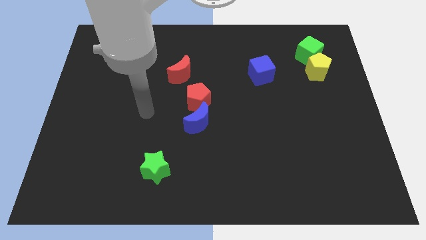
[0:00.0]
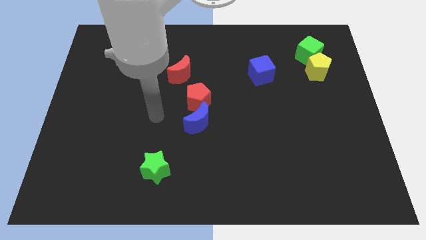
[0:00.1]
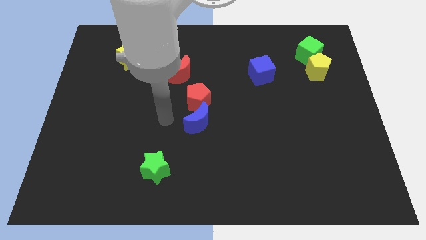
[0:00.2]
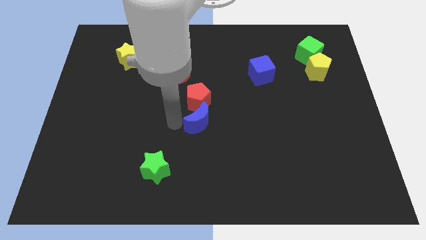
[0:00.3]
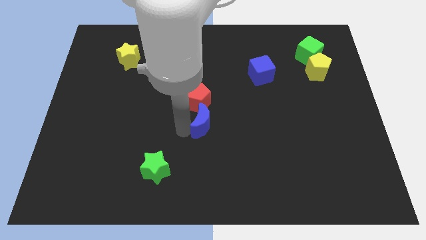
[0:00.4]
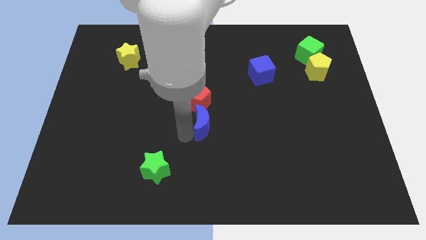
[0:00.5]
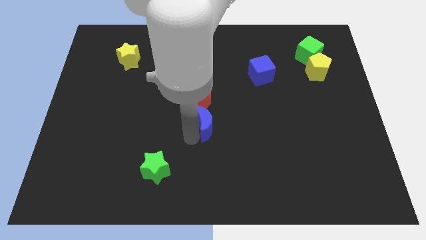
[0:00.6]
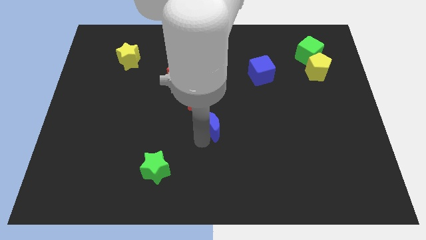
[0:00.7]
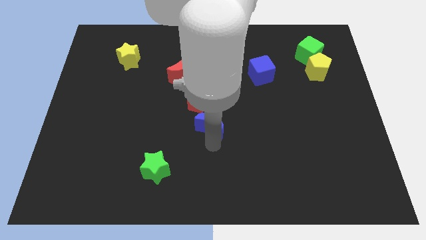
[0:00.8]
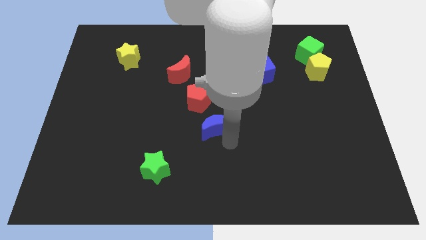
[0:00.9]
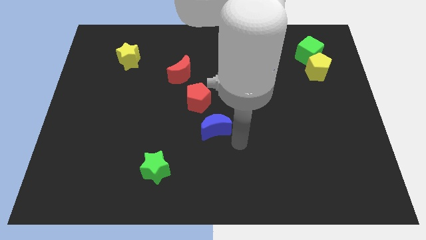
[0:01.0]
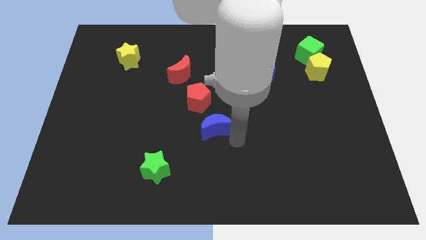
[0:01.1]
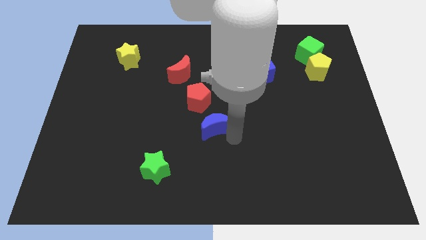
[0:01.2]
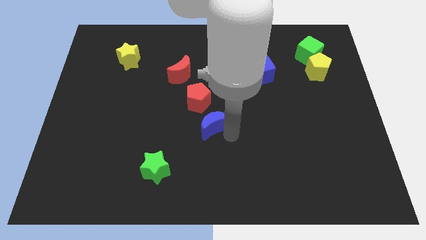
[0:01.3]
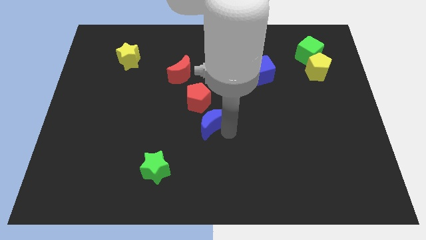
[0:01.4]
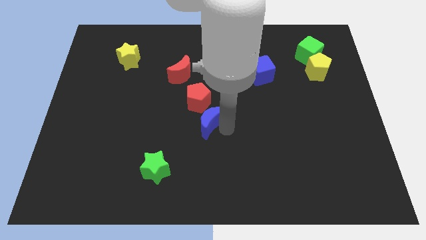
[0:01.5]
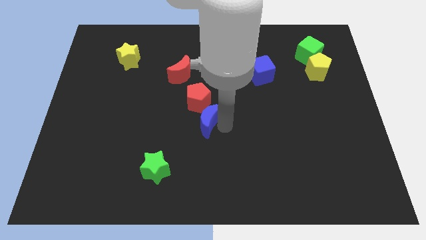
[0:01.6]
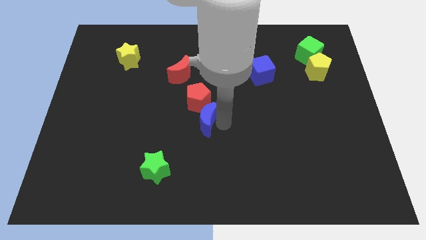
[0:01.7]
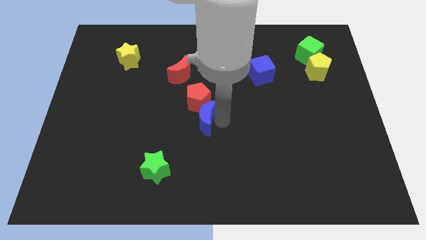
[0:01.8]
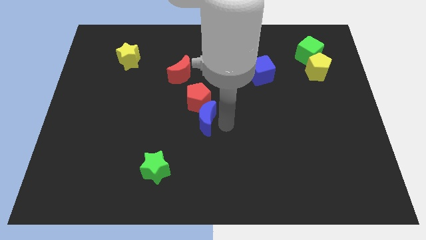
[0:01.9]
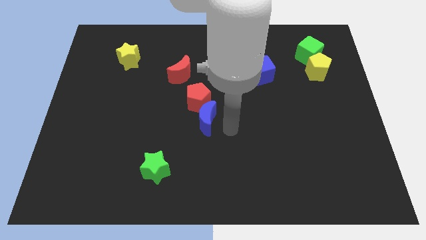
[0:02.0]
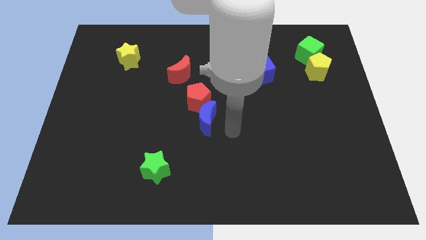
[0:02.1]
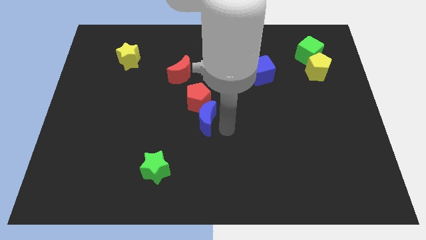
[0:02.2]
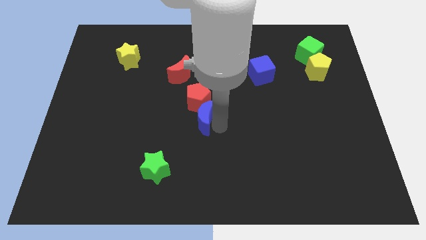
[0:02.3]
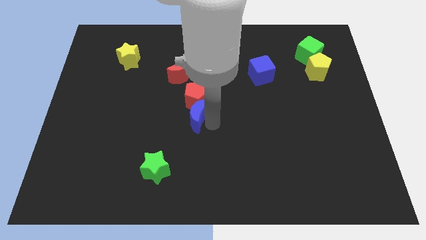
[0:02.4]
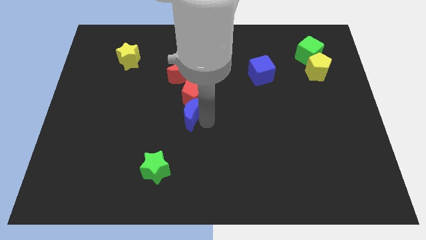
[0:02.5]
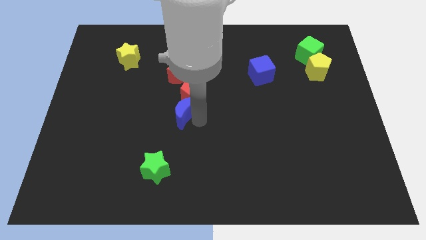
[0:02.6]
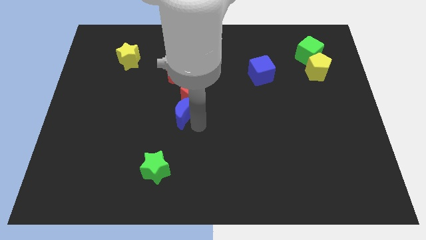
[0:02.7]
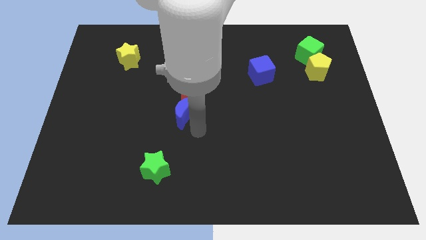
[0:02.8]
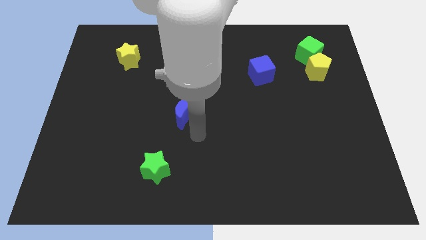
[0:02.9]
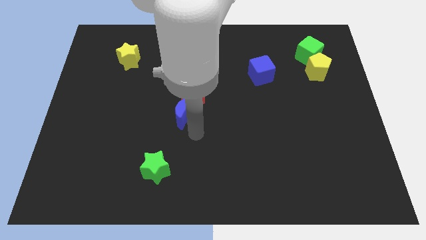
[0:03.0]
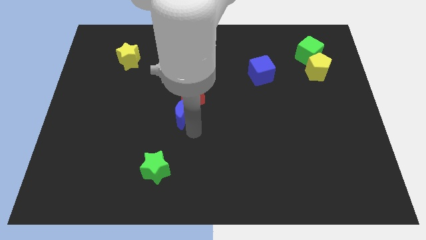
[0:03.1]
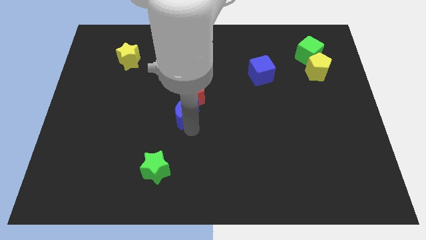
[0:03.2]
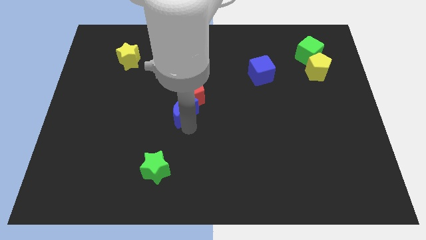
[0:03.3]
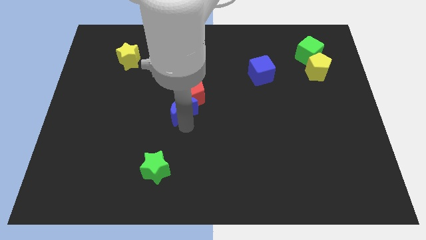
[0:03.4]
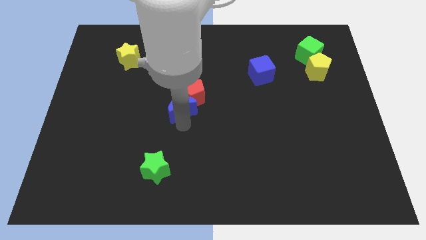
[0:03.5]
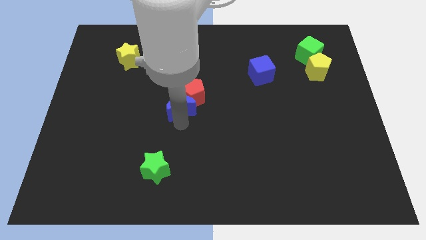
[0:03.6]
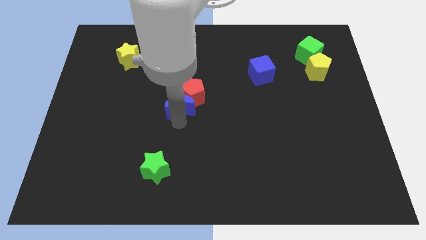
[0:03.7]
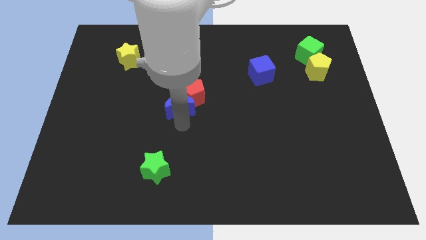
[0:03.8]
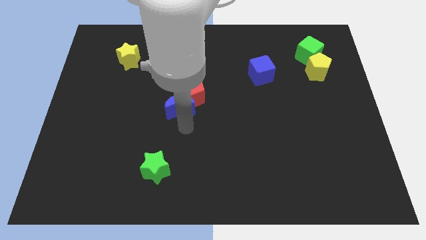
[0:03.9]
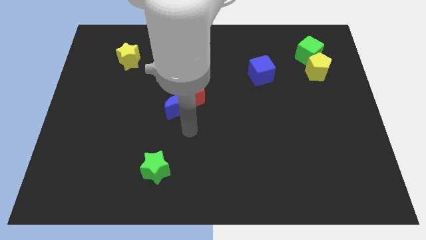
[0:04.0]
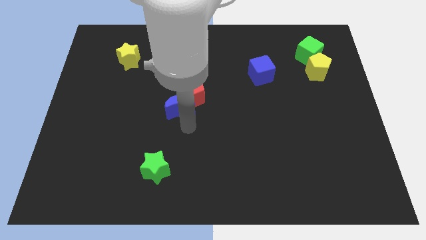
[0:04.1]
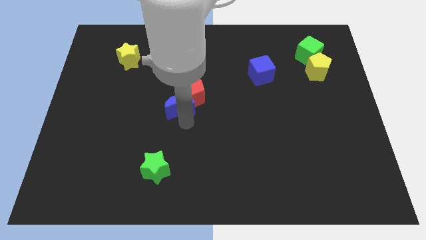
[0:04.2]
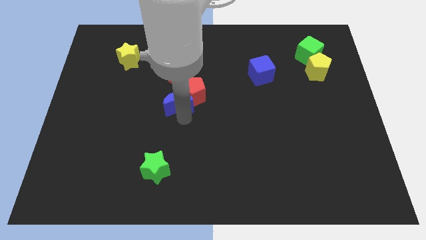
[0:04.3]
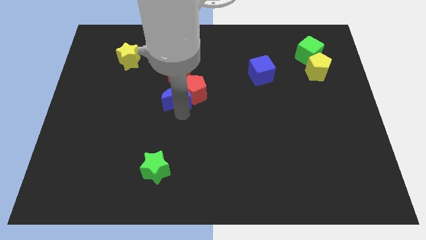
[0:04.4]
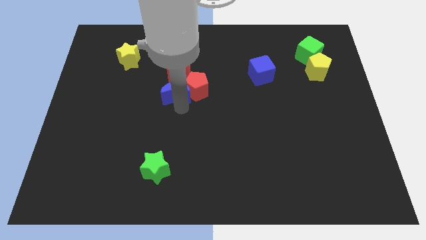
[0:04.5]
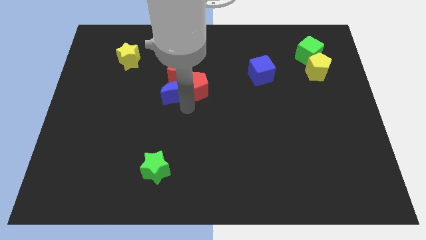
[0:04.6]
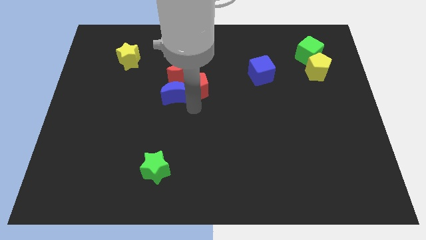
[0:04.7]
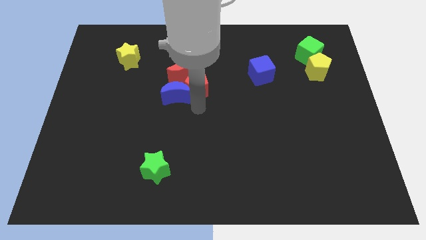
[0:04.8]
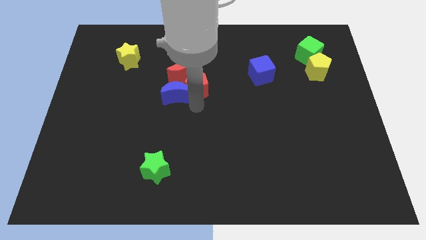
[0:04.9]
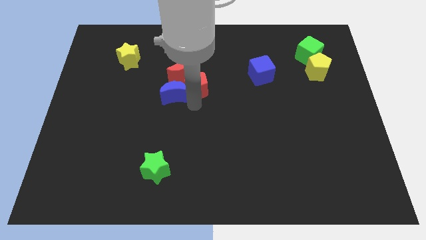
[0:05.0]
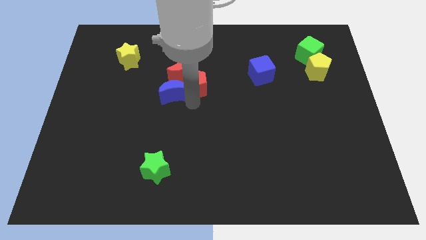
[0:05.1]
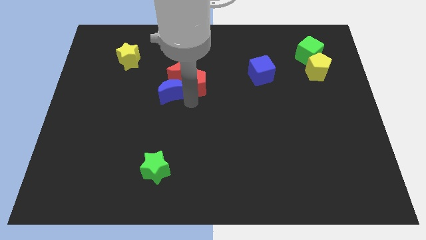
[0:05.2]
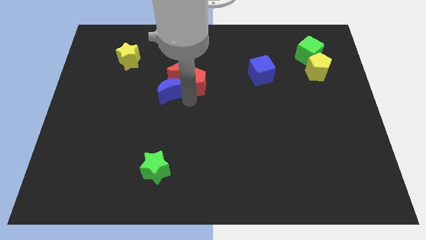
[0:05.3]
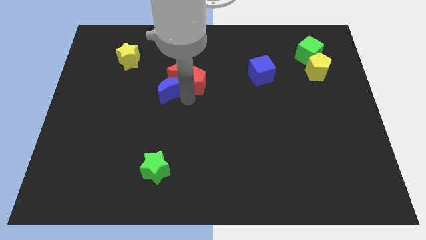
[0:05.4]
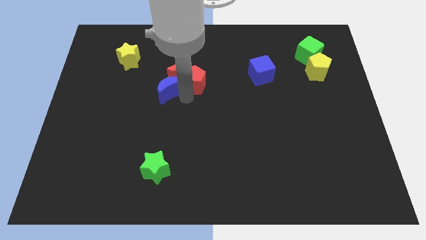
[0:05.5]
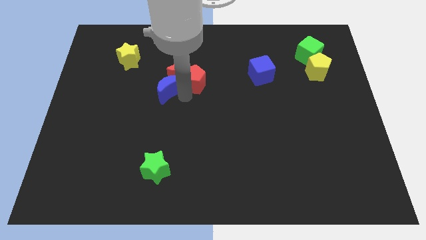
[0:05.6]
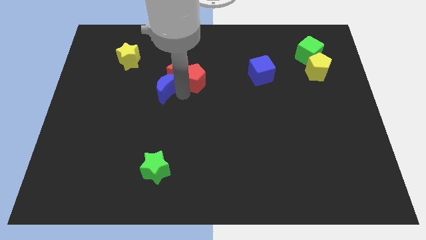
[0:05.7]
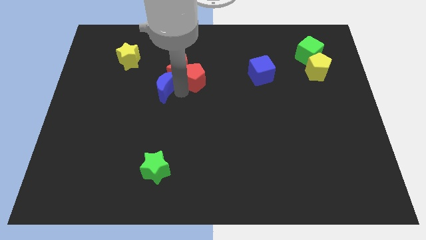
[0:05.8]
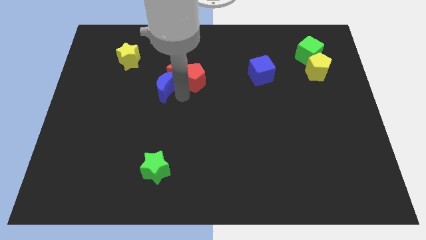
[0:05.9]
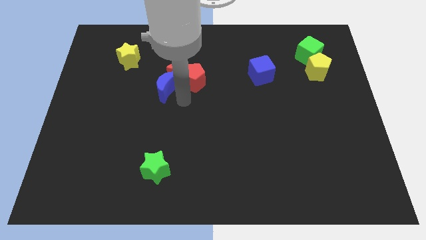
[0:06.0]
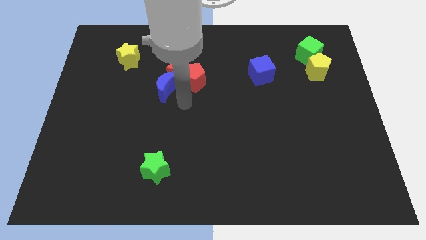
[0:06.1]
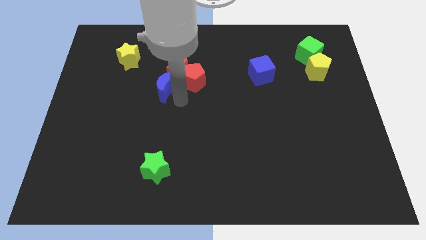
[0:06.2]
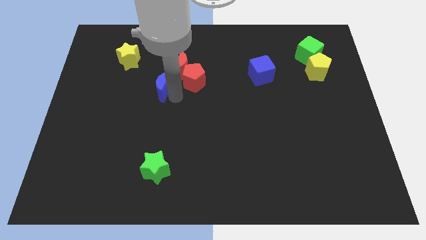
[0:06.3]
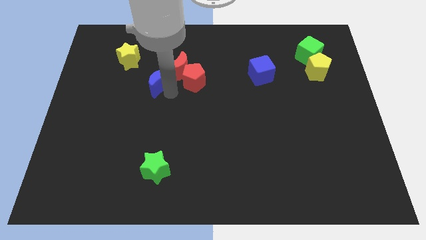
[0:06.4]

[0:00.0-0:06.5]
slide the blue moon diagonally down and to the right of the yellow star
